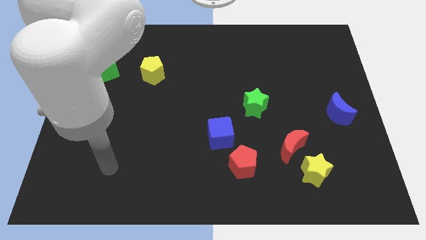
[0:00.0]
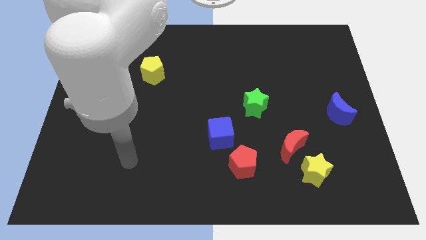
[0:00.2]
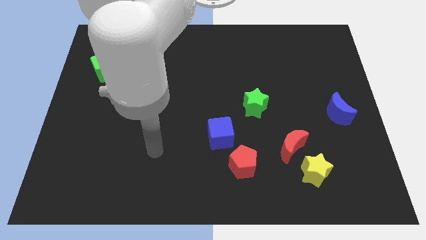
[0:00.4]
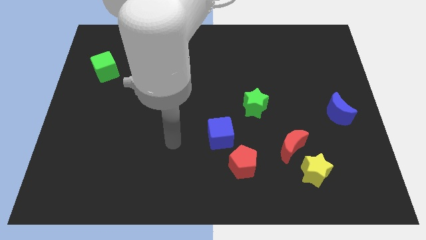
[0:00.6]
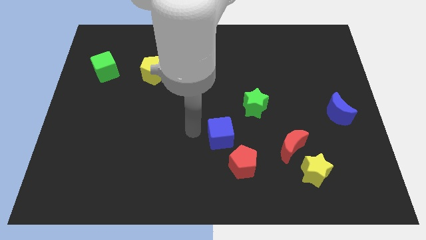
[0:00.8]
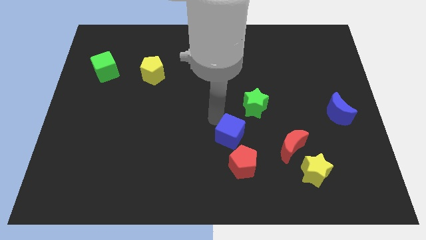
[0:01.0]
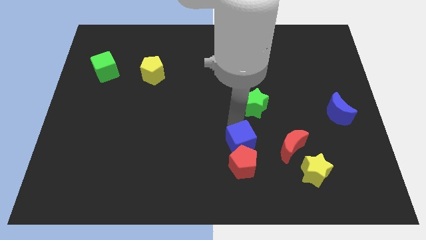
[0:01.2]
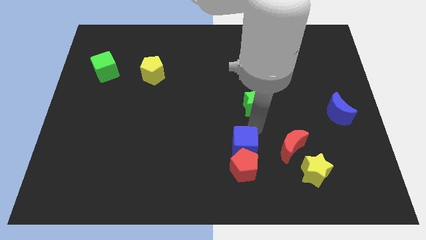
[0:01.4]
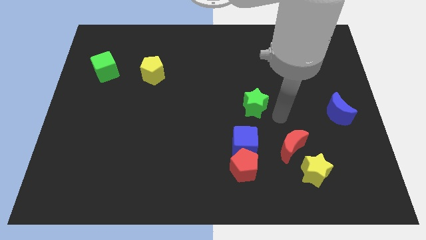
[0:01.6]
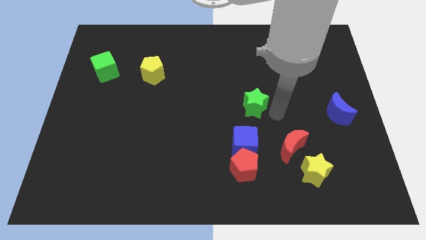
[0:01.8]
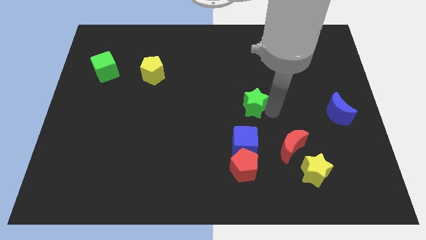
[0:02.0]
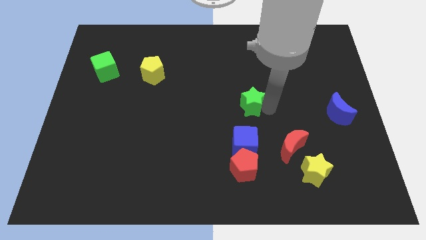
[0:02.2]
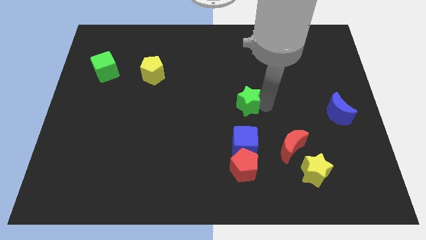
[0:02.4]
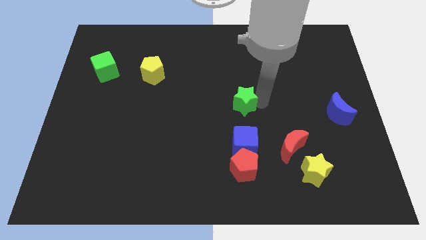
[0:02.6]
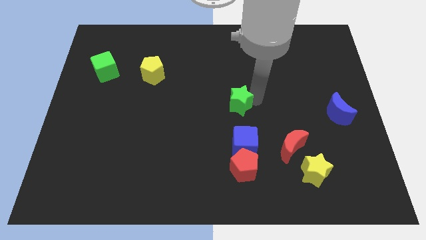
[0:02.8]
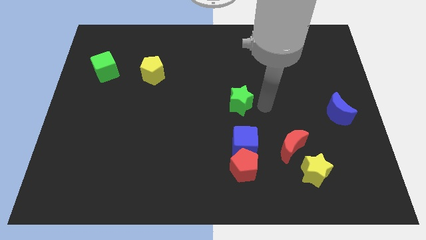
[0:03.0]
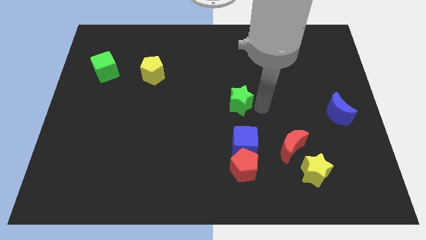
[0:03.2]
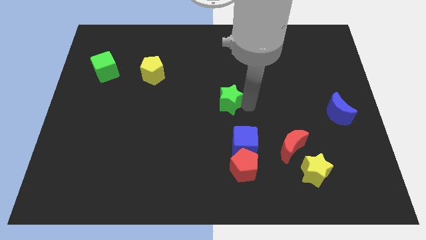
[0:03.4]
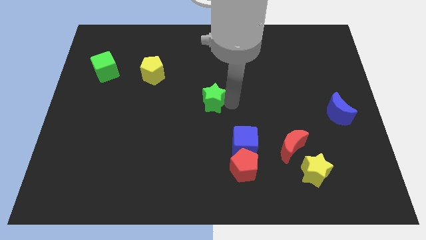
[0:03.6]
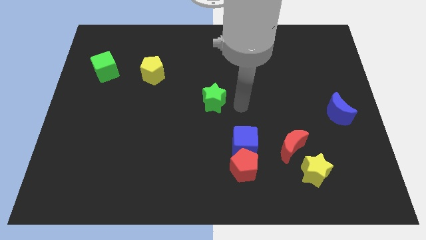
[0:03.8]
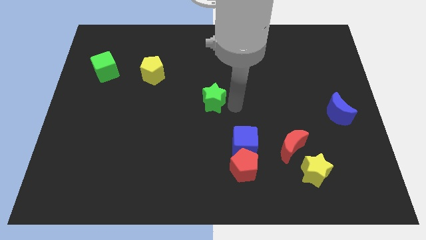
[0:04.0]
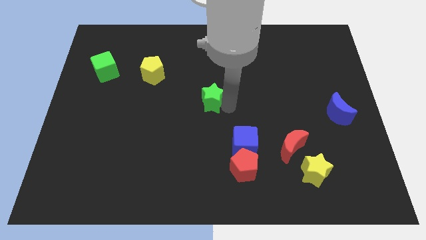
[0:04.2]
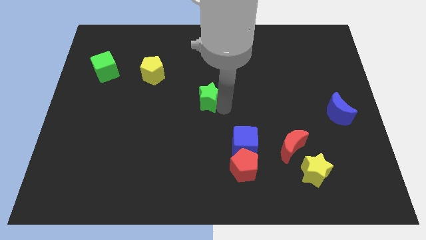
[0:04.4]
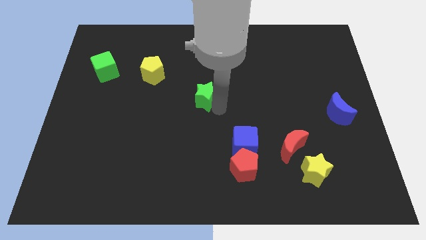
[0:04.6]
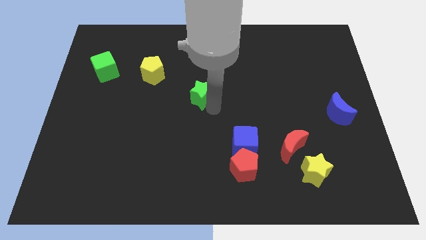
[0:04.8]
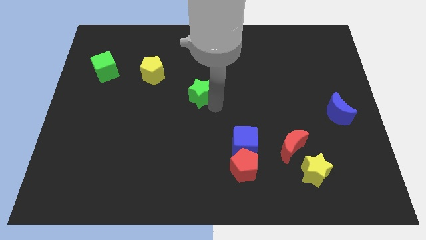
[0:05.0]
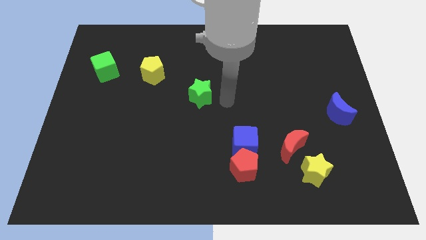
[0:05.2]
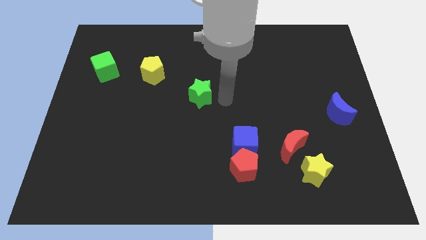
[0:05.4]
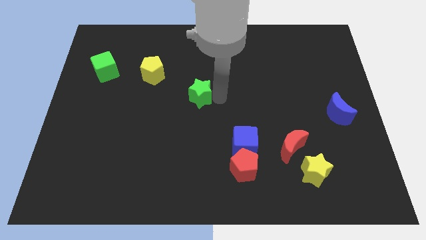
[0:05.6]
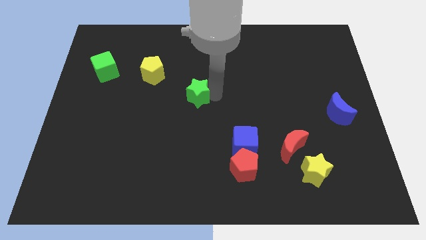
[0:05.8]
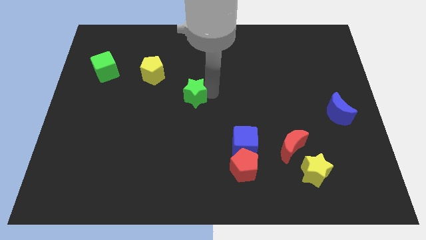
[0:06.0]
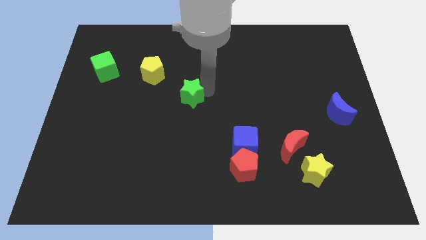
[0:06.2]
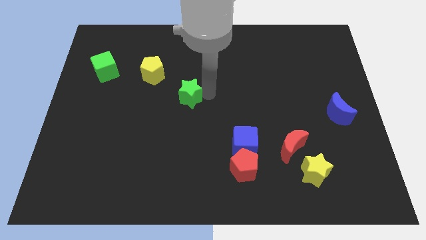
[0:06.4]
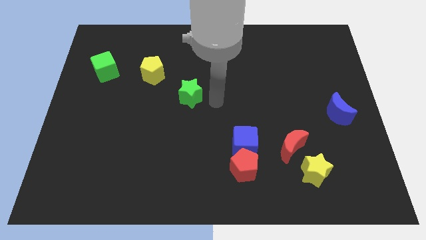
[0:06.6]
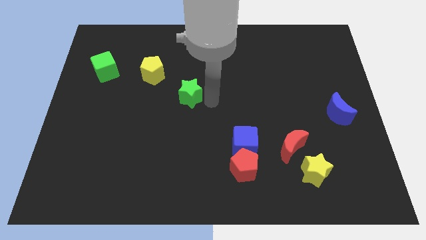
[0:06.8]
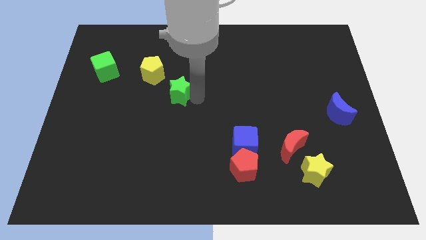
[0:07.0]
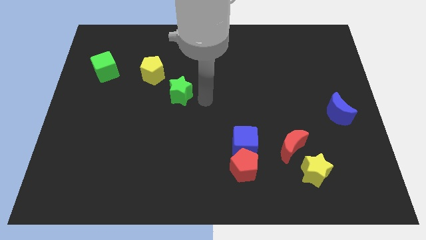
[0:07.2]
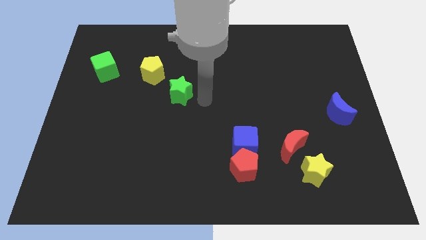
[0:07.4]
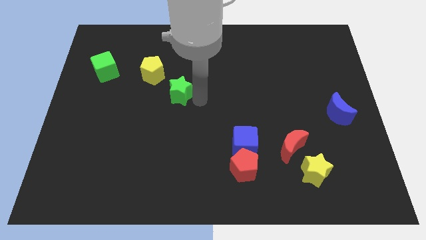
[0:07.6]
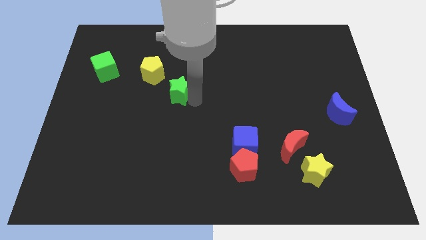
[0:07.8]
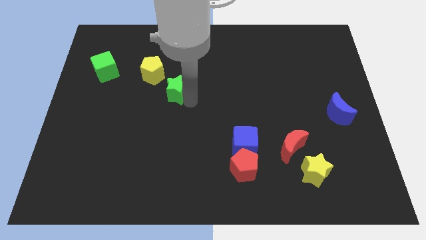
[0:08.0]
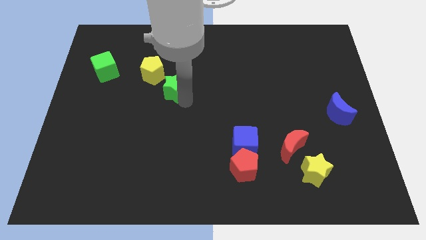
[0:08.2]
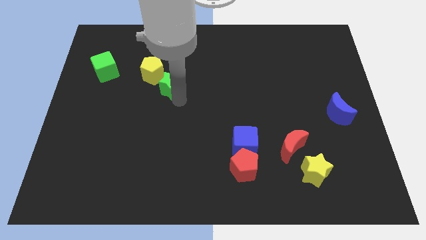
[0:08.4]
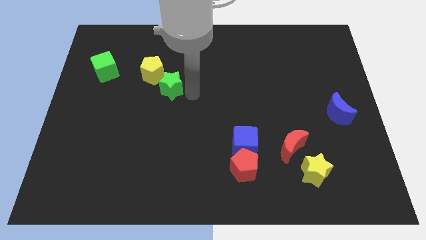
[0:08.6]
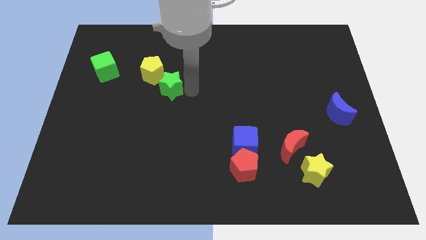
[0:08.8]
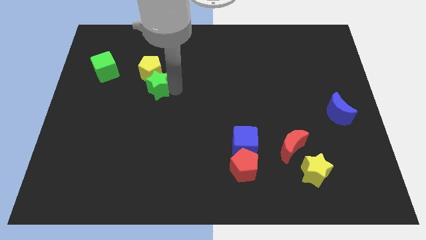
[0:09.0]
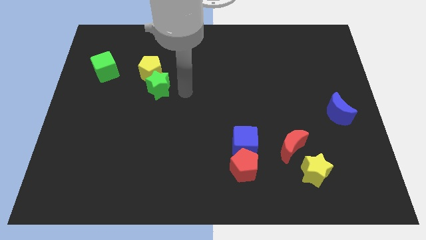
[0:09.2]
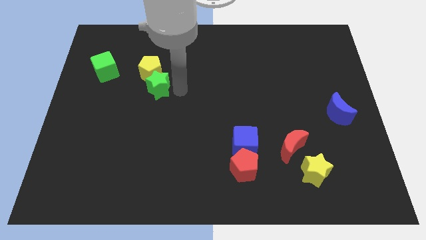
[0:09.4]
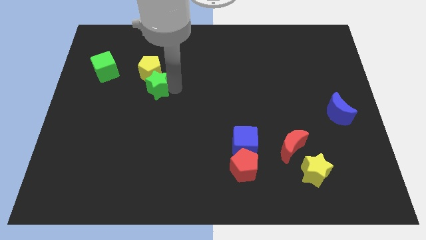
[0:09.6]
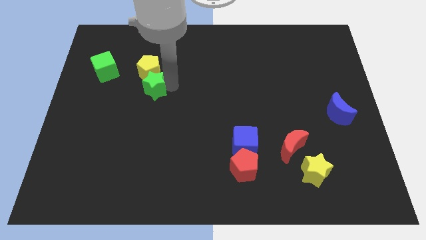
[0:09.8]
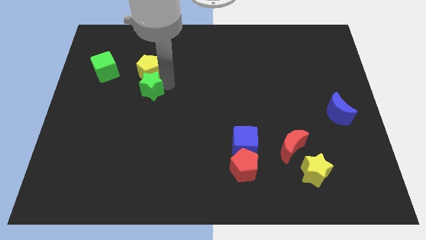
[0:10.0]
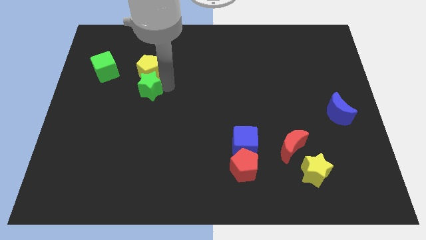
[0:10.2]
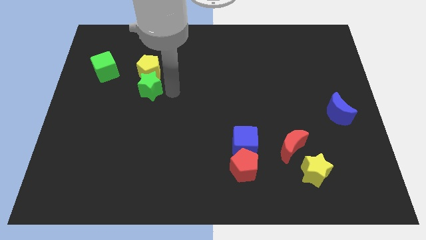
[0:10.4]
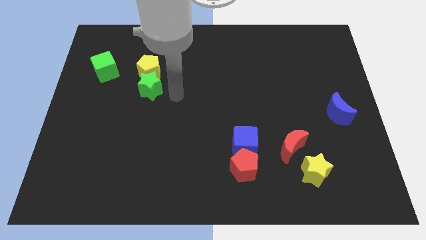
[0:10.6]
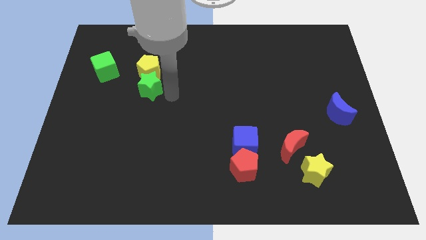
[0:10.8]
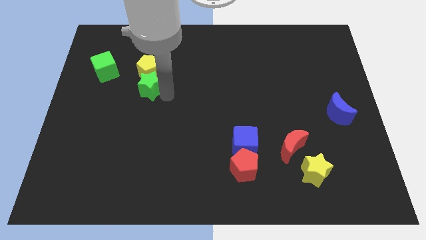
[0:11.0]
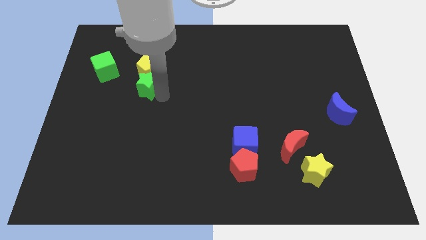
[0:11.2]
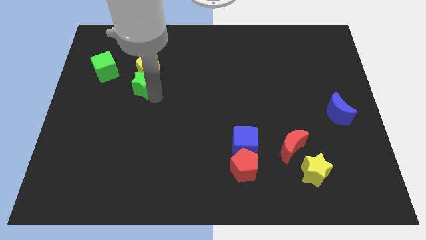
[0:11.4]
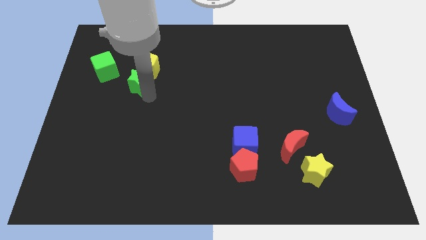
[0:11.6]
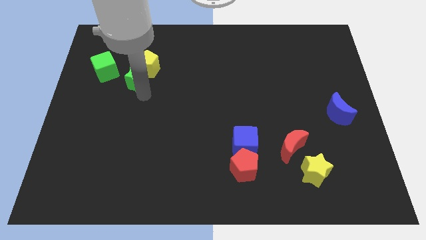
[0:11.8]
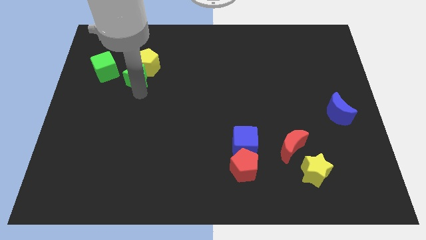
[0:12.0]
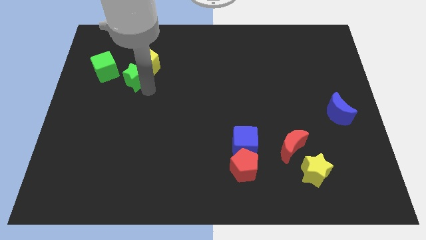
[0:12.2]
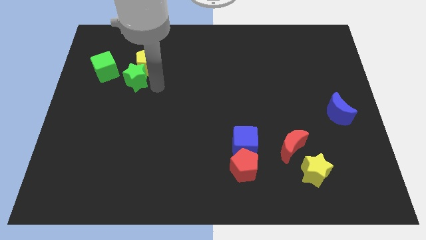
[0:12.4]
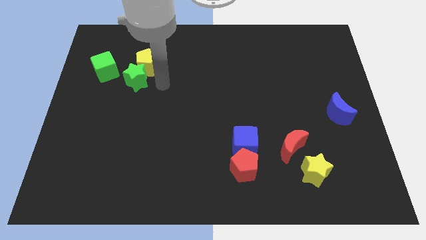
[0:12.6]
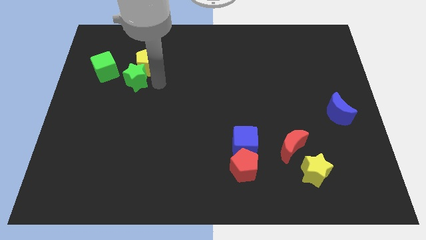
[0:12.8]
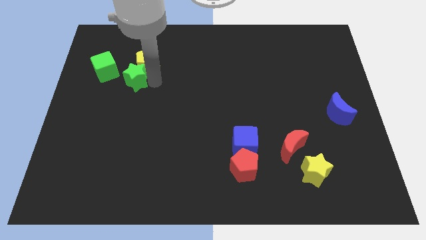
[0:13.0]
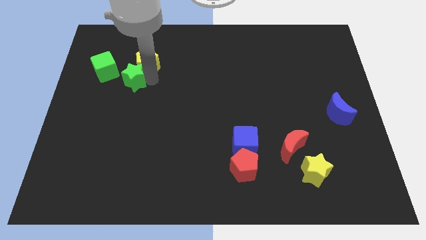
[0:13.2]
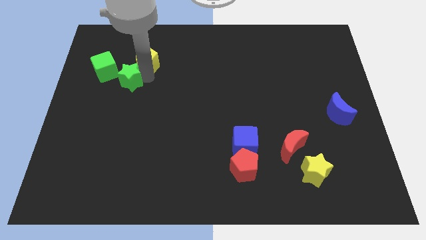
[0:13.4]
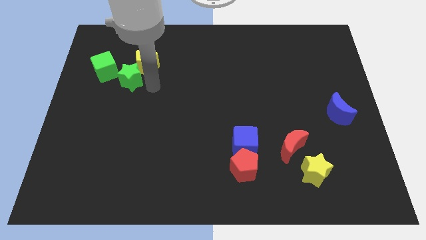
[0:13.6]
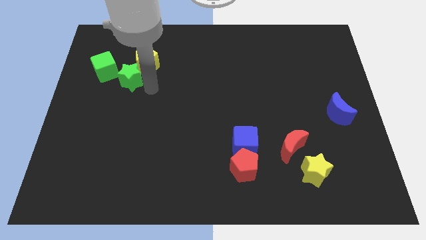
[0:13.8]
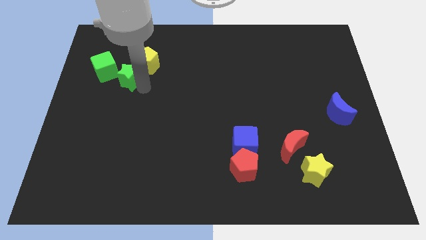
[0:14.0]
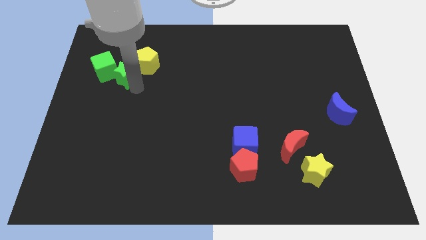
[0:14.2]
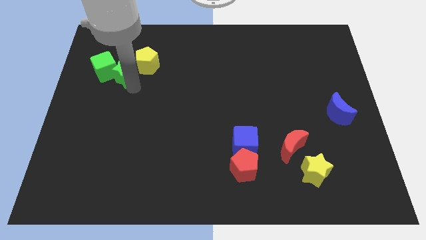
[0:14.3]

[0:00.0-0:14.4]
push the green star towards the green cube

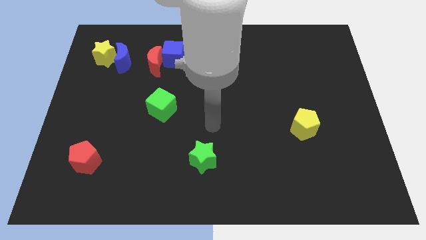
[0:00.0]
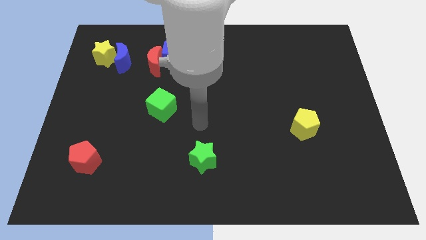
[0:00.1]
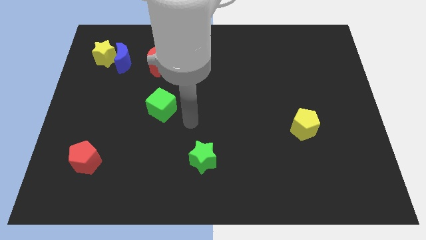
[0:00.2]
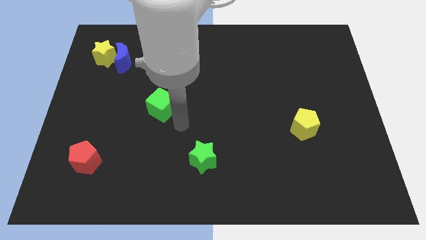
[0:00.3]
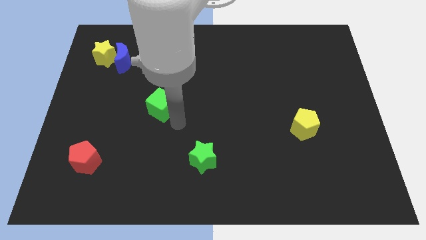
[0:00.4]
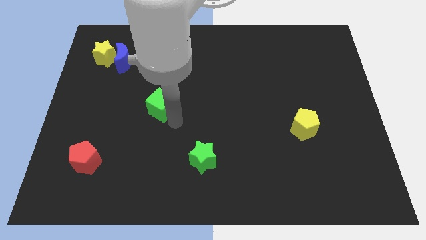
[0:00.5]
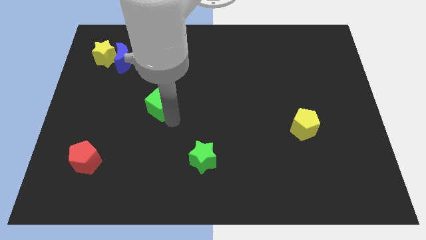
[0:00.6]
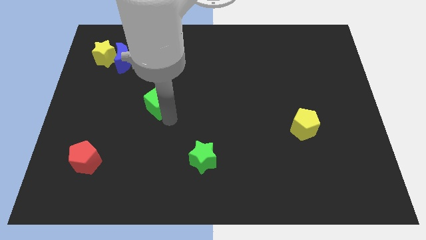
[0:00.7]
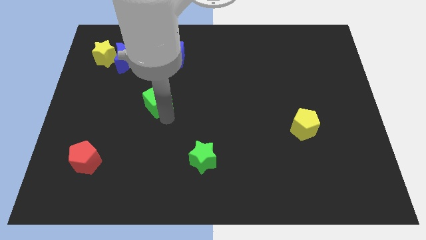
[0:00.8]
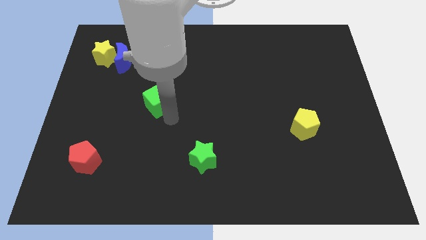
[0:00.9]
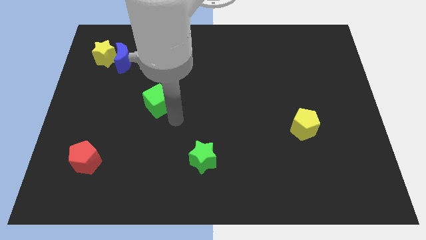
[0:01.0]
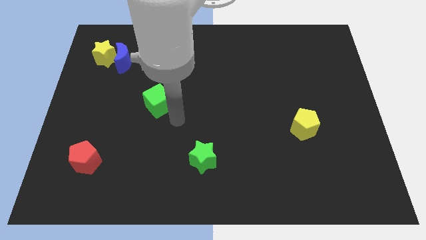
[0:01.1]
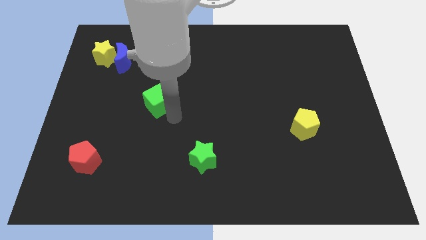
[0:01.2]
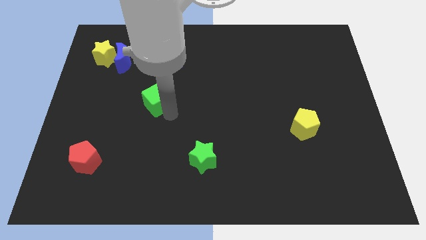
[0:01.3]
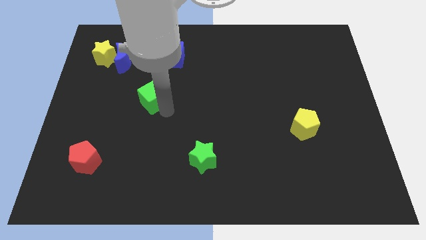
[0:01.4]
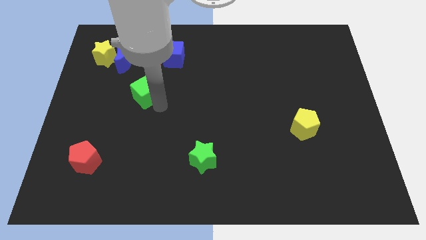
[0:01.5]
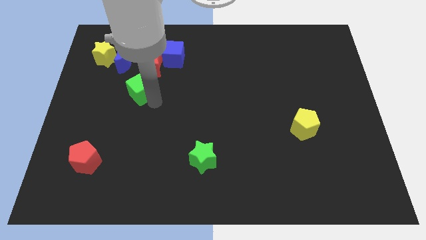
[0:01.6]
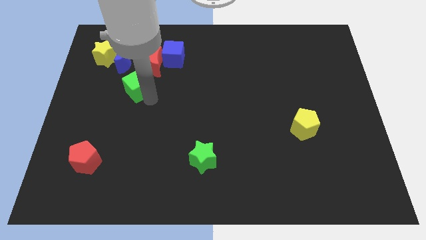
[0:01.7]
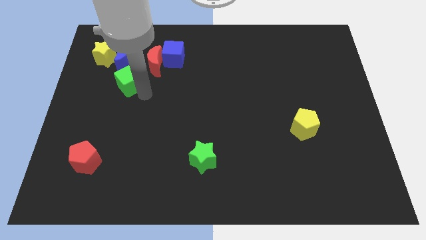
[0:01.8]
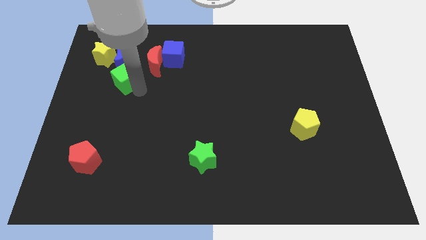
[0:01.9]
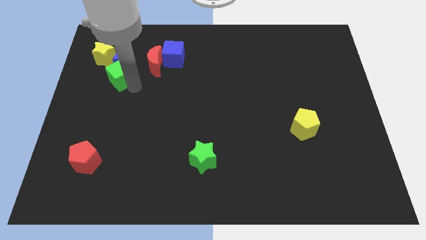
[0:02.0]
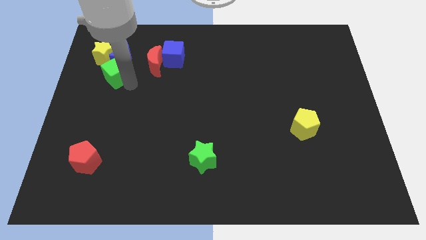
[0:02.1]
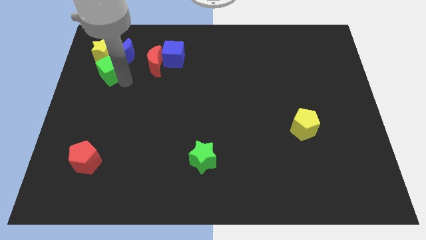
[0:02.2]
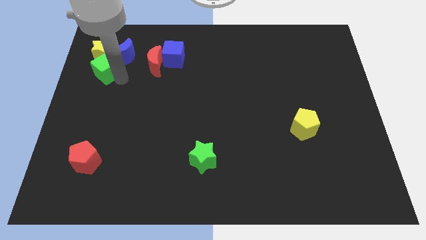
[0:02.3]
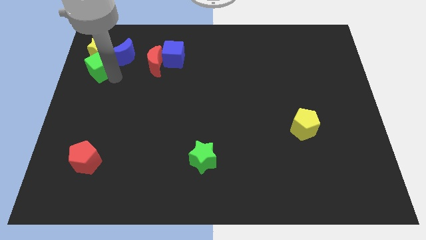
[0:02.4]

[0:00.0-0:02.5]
slide the green cube next to the yellow star
